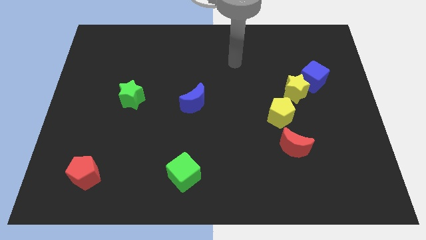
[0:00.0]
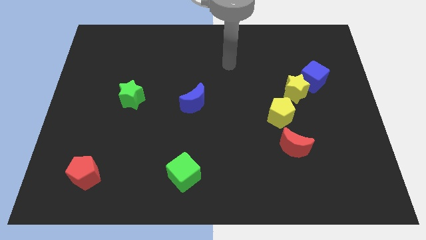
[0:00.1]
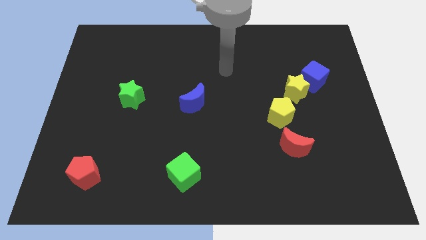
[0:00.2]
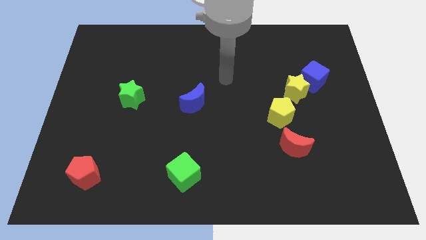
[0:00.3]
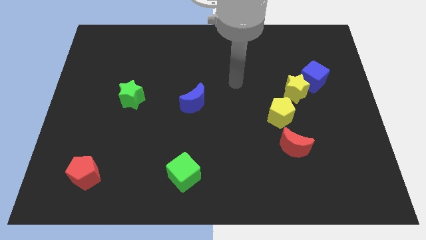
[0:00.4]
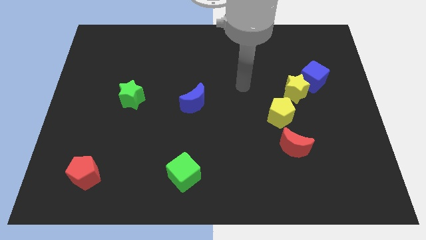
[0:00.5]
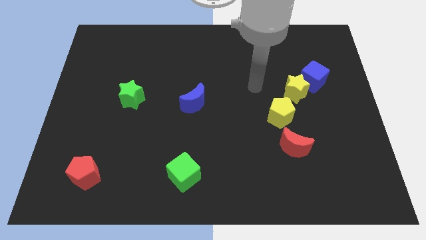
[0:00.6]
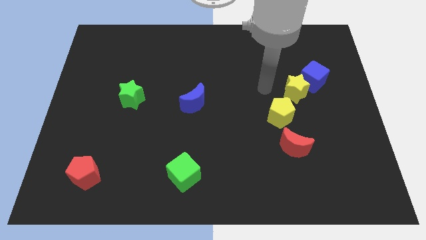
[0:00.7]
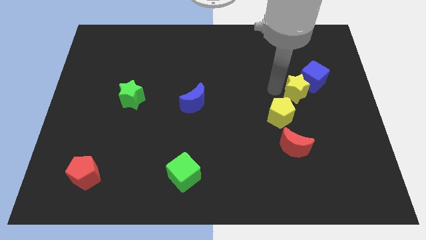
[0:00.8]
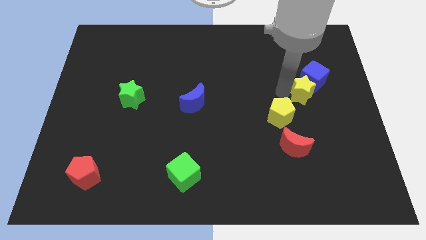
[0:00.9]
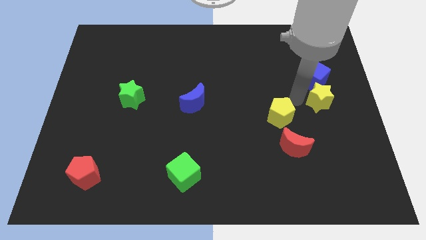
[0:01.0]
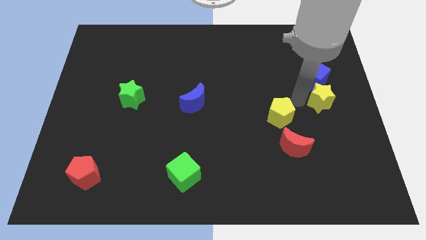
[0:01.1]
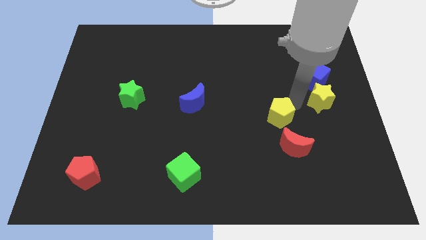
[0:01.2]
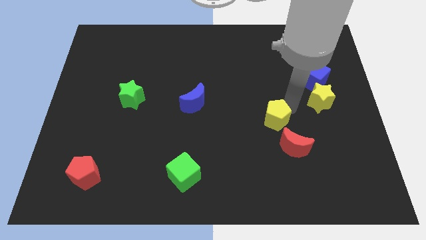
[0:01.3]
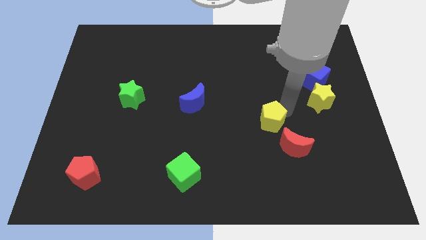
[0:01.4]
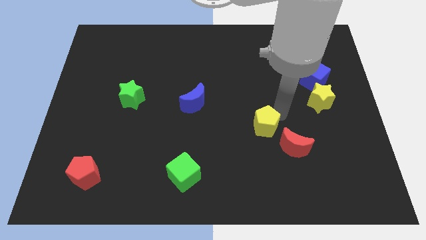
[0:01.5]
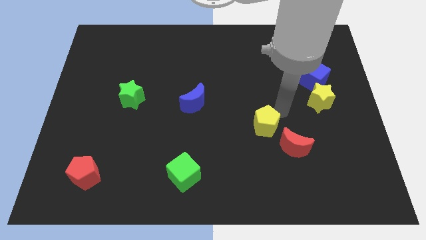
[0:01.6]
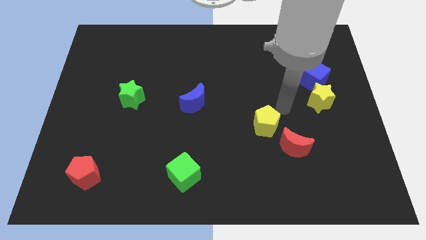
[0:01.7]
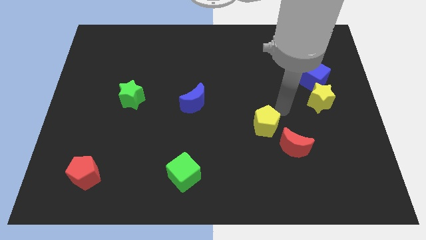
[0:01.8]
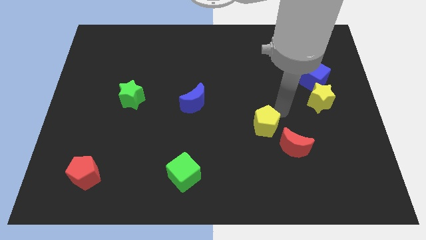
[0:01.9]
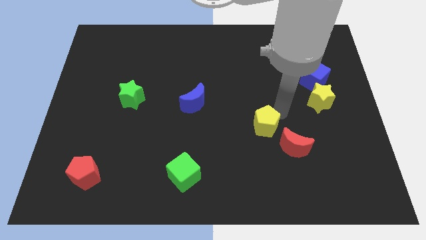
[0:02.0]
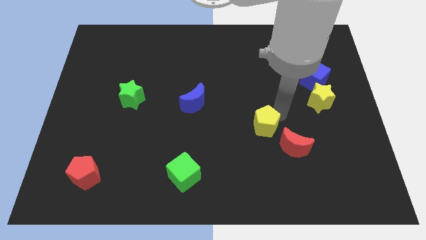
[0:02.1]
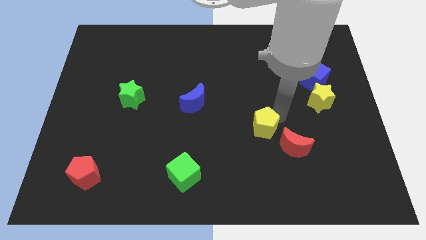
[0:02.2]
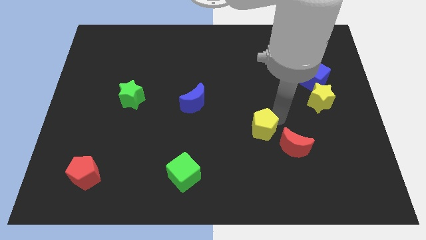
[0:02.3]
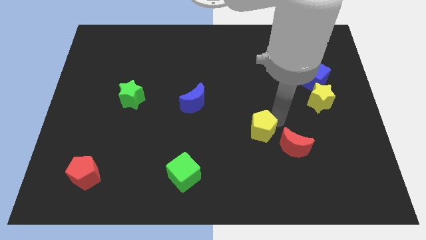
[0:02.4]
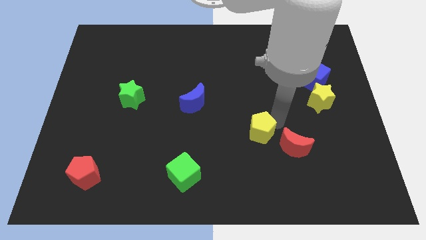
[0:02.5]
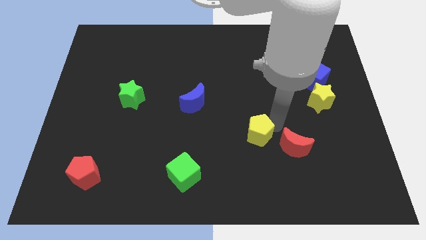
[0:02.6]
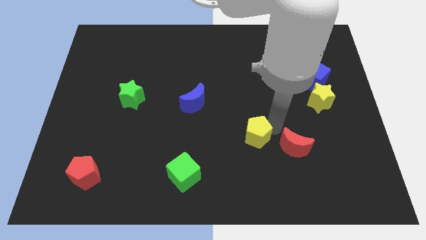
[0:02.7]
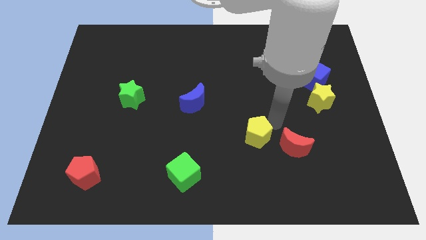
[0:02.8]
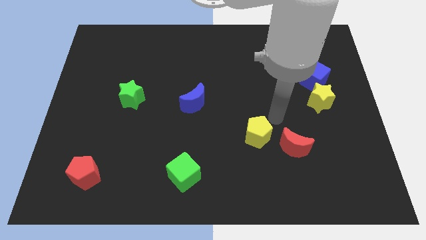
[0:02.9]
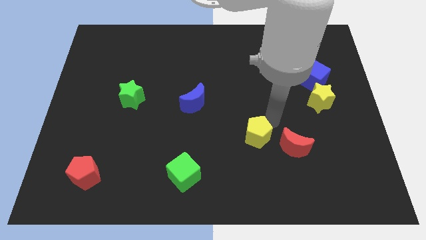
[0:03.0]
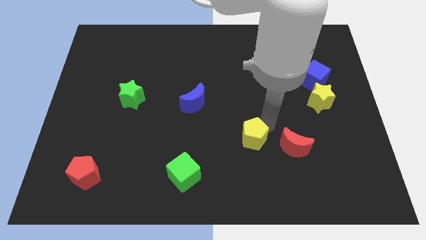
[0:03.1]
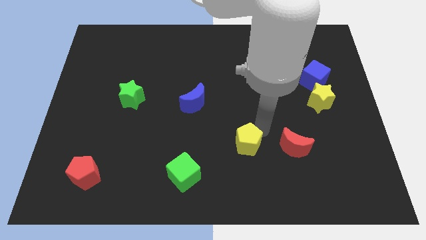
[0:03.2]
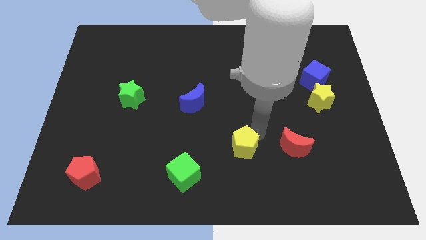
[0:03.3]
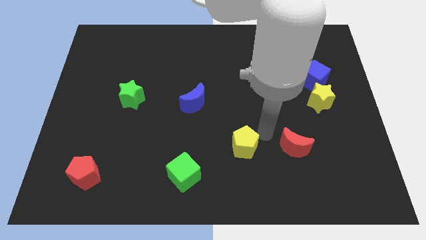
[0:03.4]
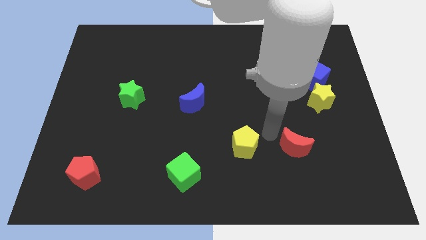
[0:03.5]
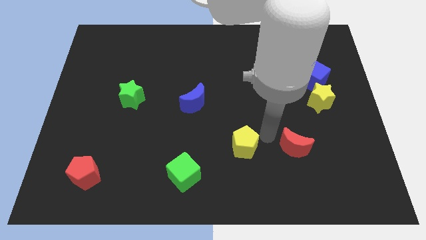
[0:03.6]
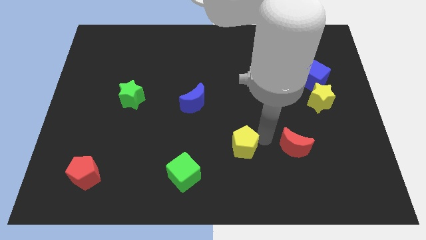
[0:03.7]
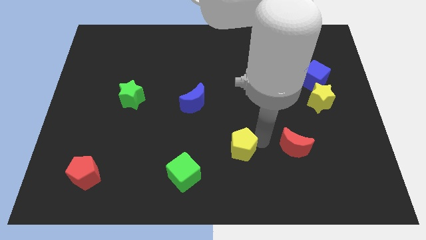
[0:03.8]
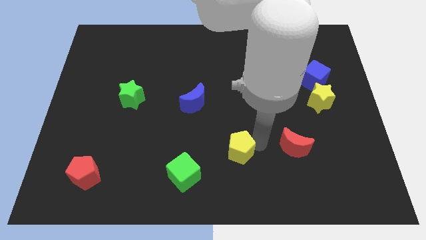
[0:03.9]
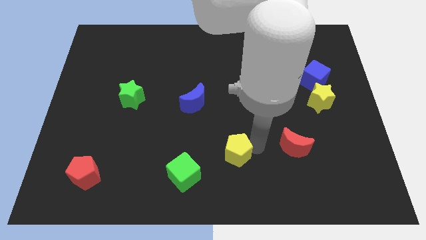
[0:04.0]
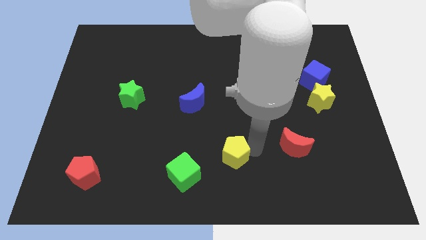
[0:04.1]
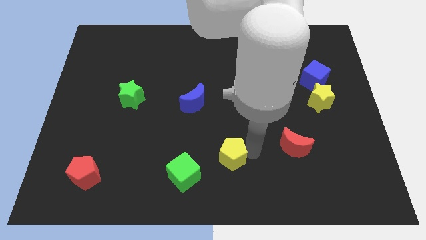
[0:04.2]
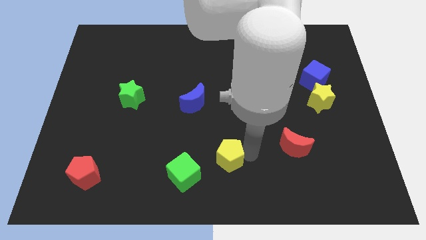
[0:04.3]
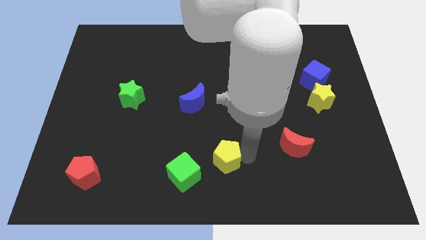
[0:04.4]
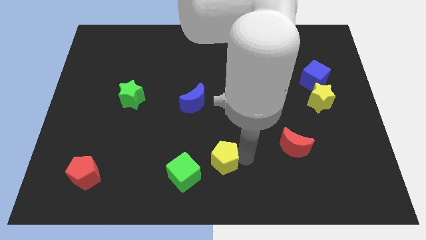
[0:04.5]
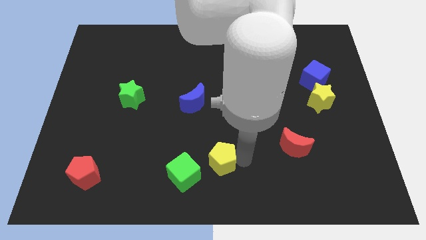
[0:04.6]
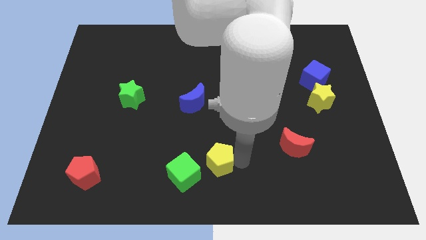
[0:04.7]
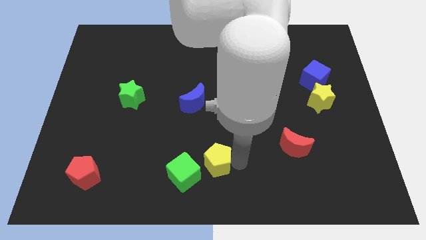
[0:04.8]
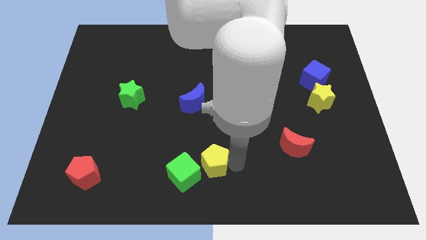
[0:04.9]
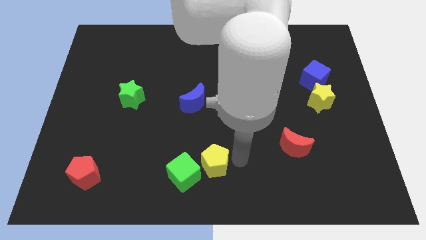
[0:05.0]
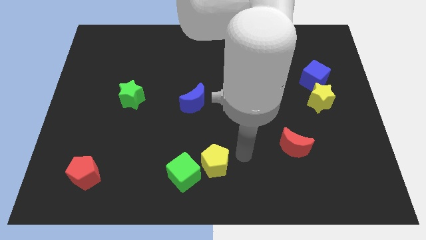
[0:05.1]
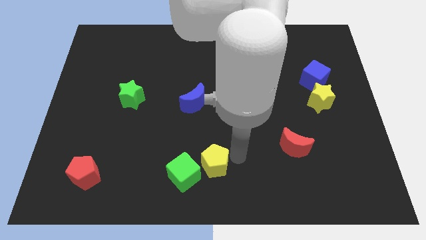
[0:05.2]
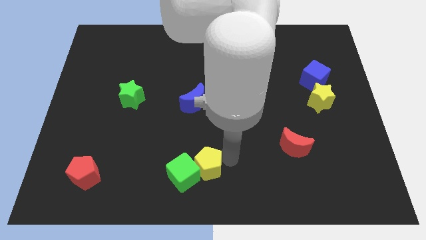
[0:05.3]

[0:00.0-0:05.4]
put the yellow pentagon next to the green cube

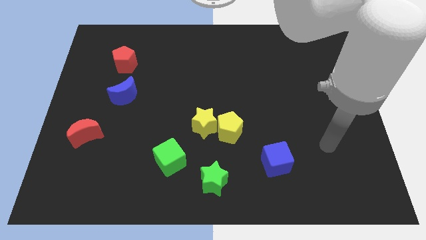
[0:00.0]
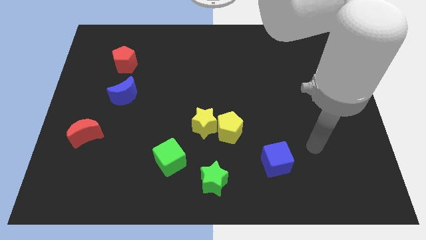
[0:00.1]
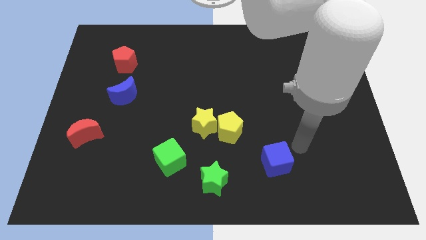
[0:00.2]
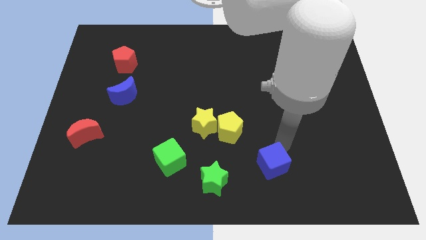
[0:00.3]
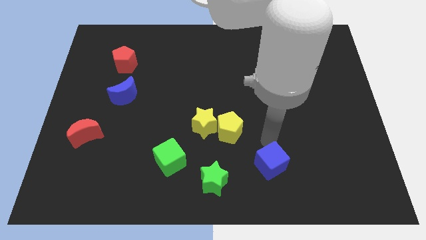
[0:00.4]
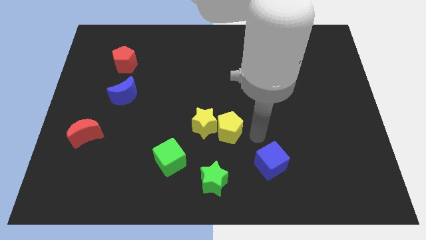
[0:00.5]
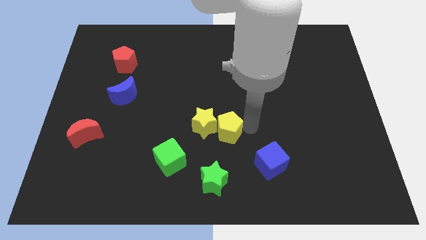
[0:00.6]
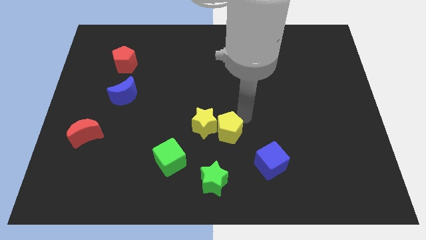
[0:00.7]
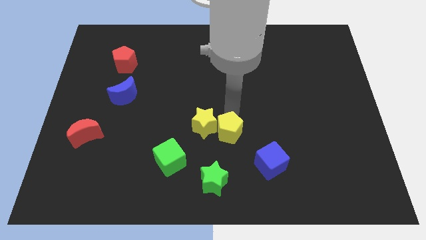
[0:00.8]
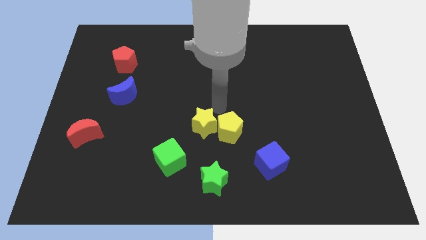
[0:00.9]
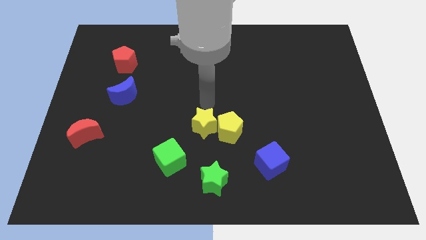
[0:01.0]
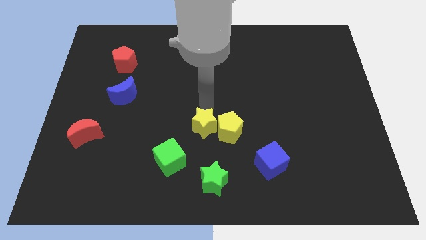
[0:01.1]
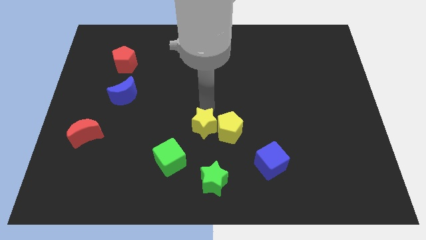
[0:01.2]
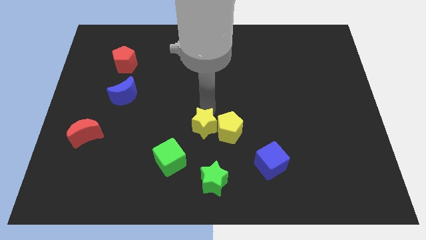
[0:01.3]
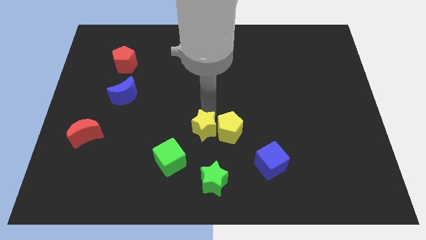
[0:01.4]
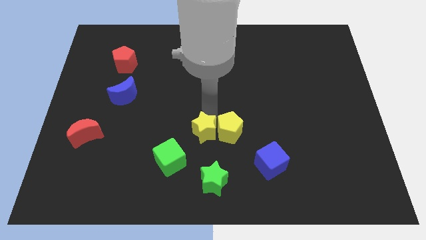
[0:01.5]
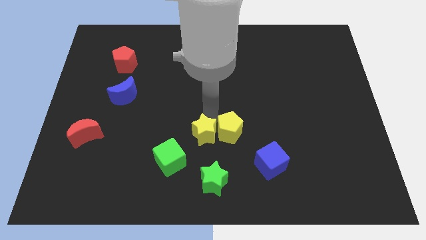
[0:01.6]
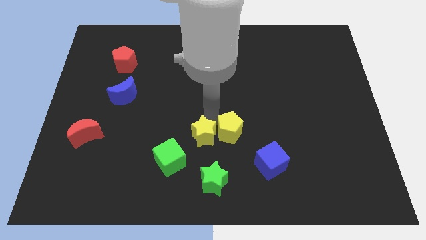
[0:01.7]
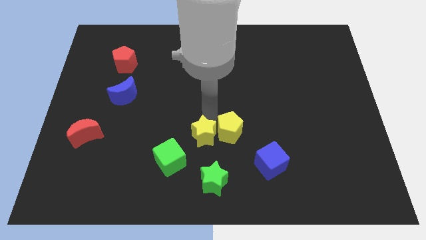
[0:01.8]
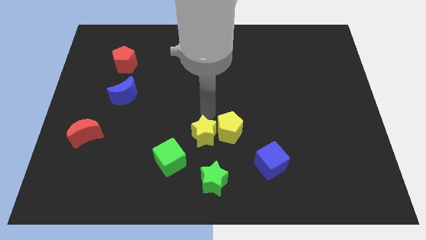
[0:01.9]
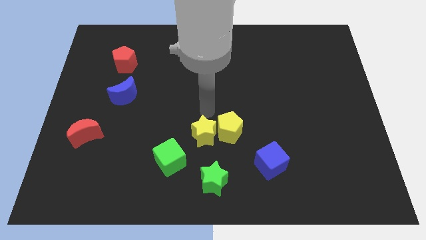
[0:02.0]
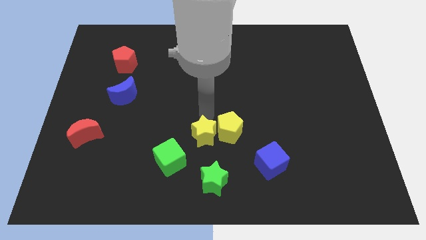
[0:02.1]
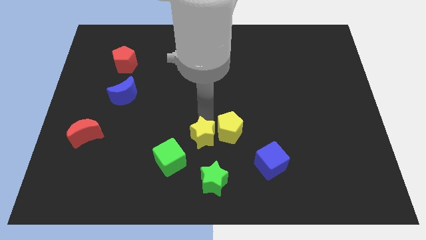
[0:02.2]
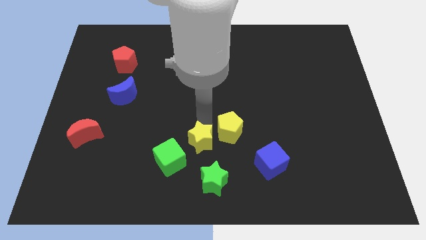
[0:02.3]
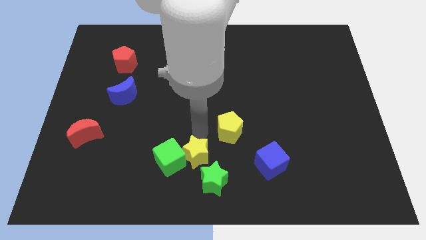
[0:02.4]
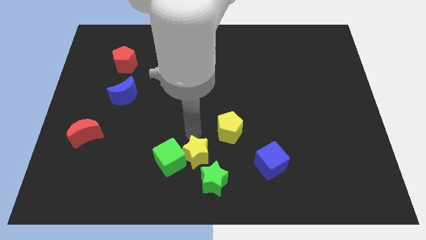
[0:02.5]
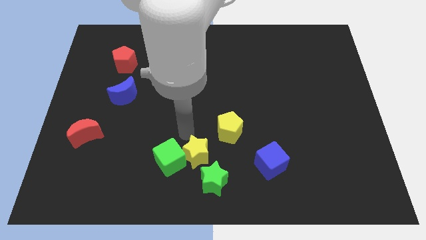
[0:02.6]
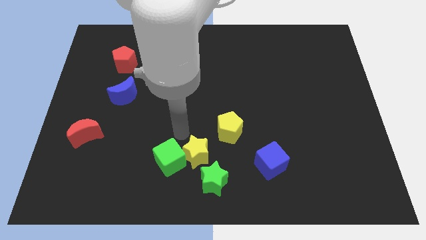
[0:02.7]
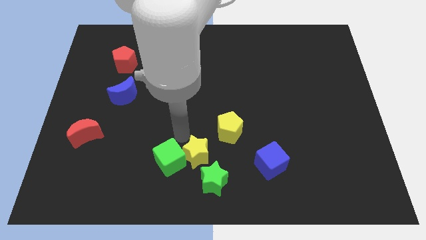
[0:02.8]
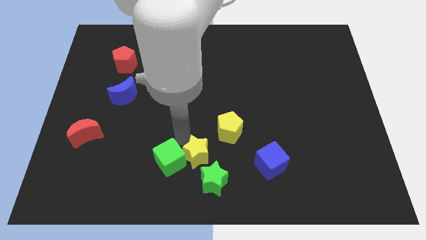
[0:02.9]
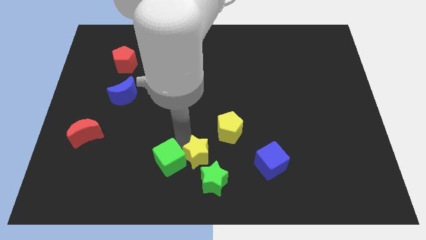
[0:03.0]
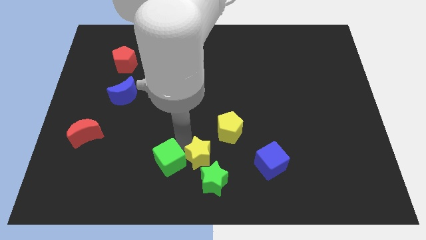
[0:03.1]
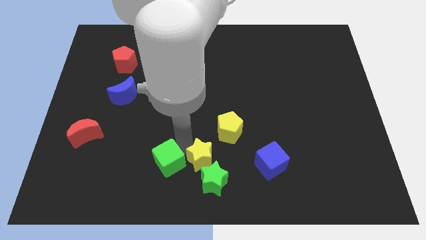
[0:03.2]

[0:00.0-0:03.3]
move the yellow star to the green star
